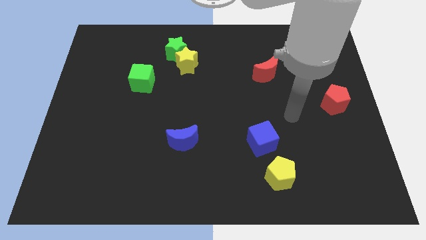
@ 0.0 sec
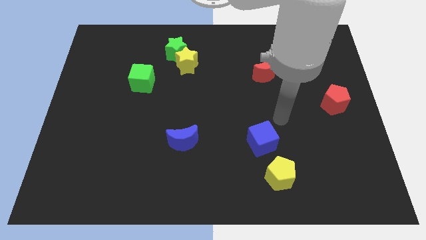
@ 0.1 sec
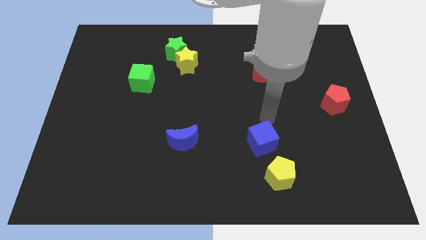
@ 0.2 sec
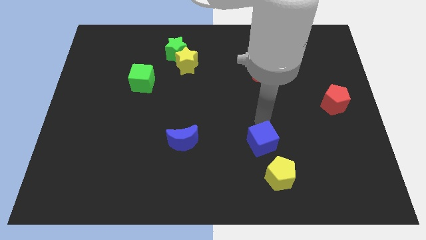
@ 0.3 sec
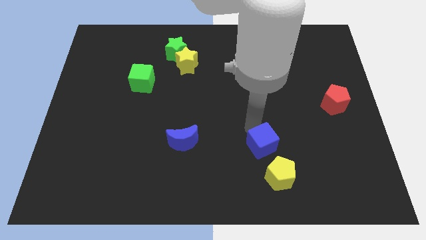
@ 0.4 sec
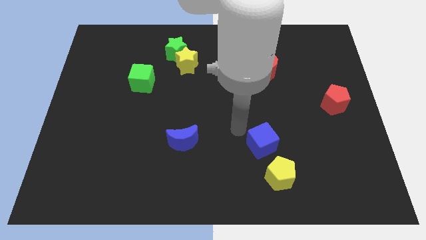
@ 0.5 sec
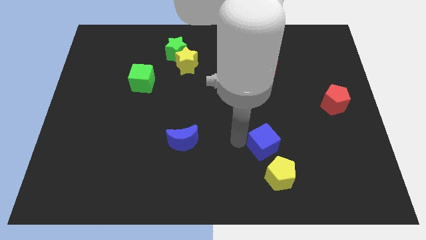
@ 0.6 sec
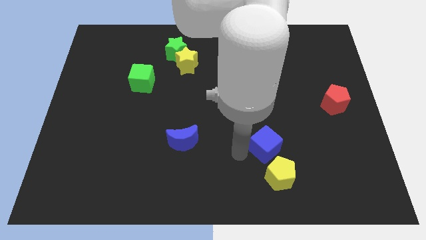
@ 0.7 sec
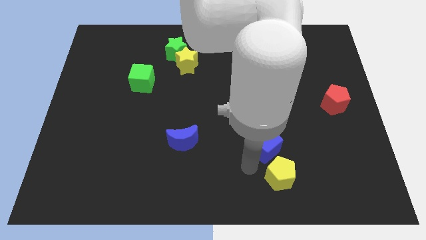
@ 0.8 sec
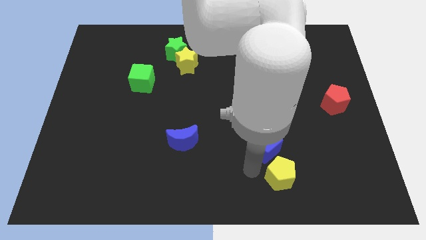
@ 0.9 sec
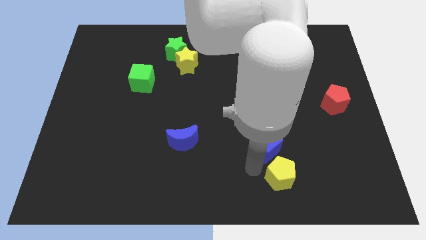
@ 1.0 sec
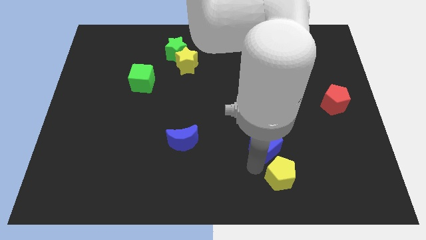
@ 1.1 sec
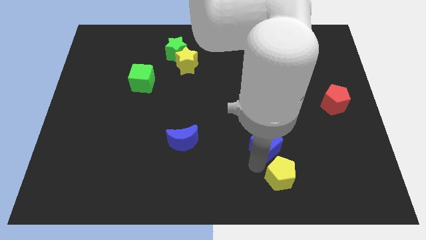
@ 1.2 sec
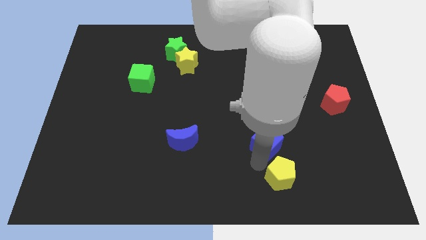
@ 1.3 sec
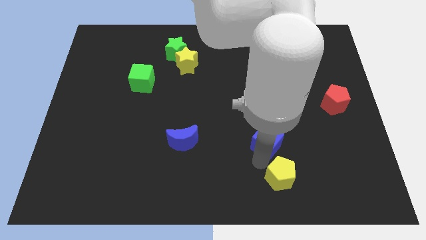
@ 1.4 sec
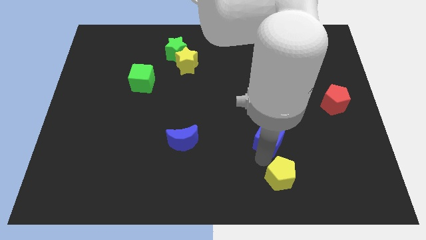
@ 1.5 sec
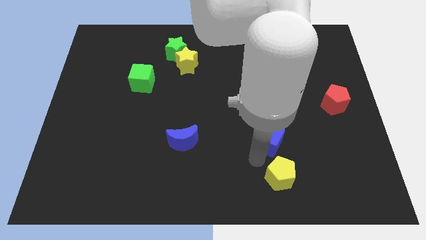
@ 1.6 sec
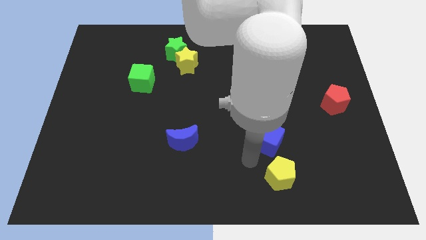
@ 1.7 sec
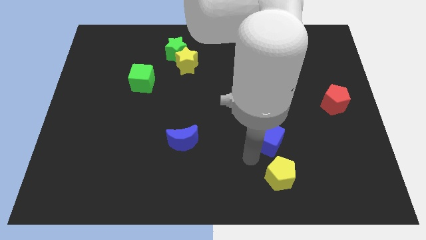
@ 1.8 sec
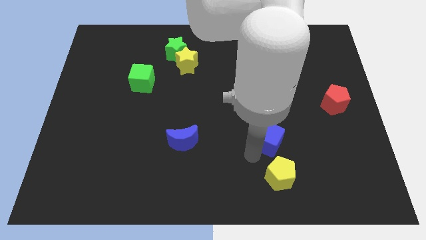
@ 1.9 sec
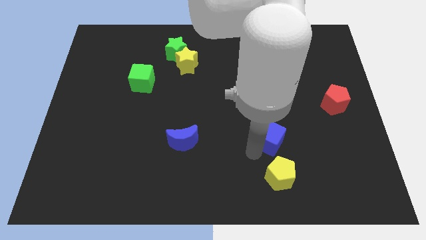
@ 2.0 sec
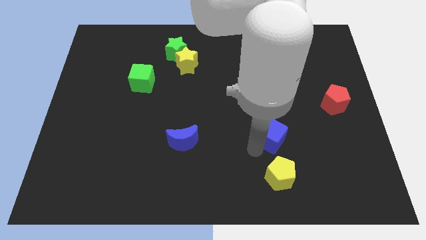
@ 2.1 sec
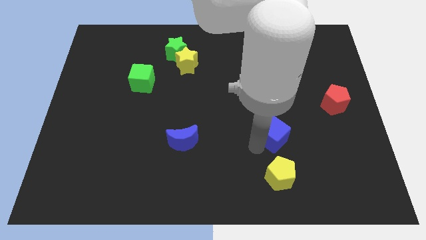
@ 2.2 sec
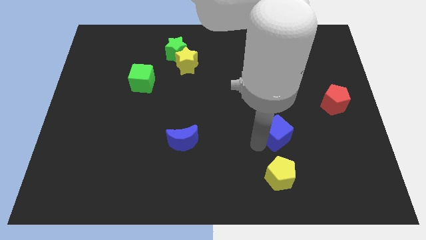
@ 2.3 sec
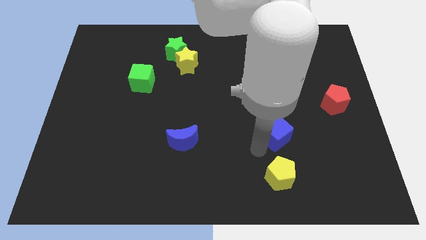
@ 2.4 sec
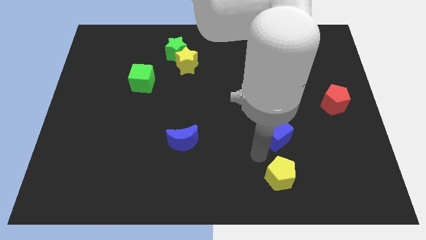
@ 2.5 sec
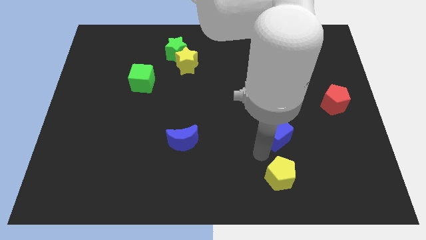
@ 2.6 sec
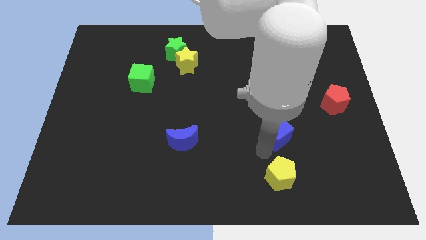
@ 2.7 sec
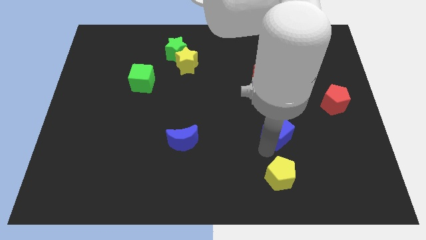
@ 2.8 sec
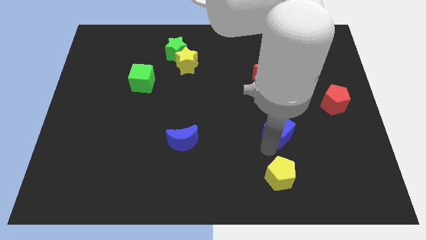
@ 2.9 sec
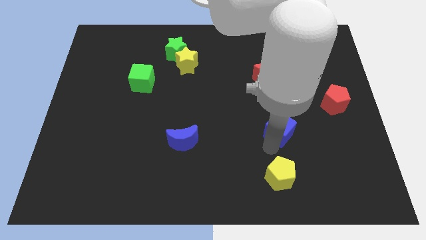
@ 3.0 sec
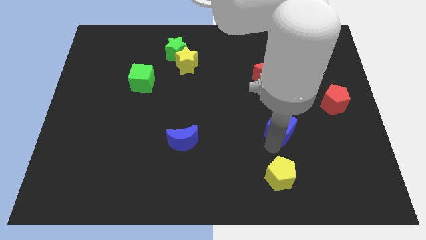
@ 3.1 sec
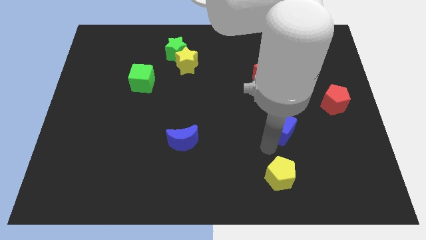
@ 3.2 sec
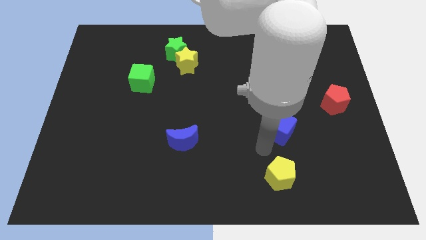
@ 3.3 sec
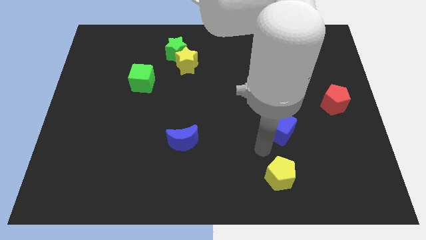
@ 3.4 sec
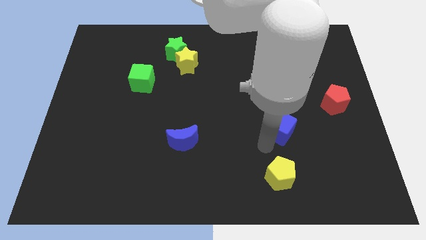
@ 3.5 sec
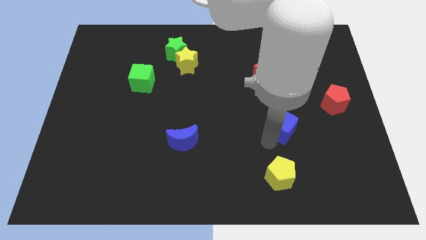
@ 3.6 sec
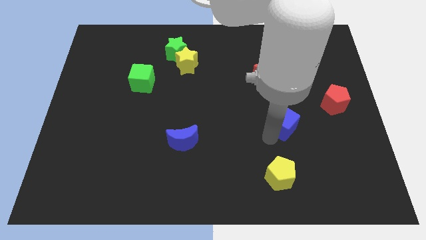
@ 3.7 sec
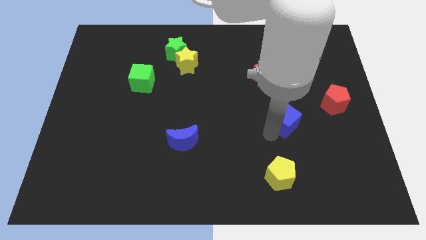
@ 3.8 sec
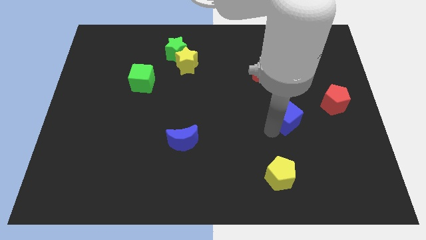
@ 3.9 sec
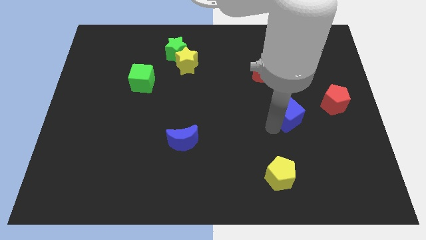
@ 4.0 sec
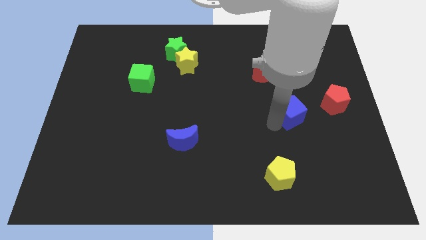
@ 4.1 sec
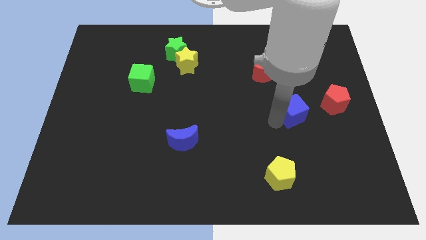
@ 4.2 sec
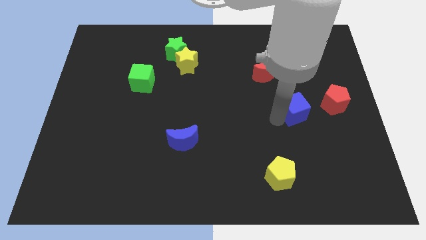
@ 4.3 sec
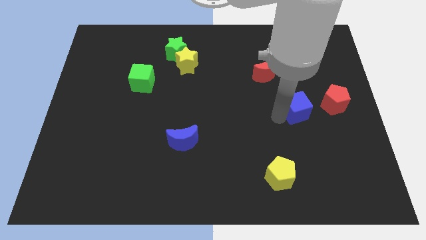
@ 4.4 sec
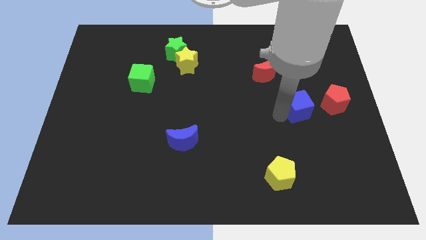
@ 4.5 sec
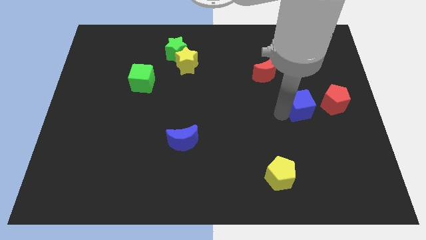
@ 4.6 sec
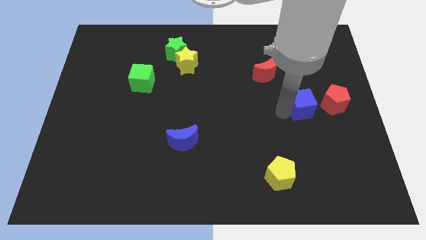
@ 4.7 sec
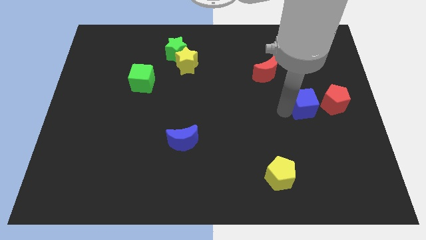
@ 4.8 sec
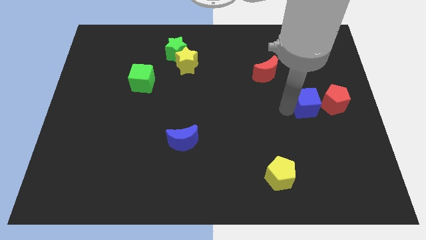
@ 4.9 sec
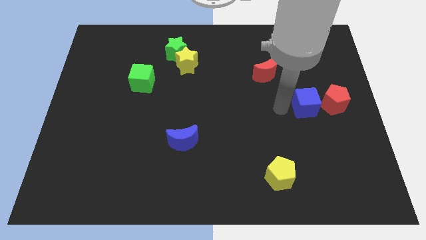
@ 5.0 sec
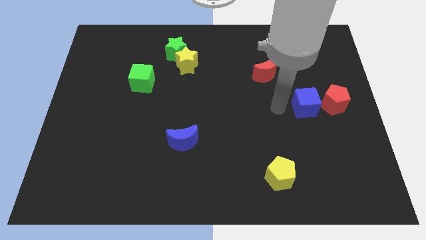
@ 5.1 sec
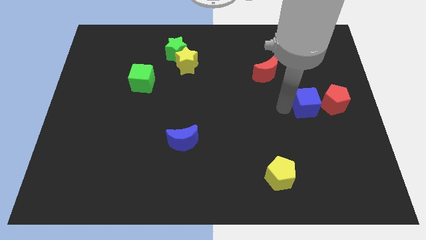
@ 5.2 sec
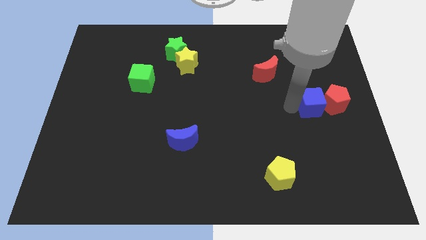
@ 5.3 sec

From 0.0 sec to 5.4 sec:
put the blue cube close to the red pentagon
